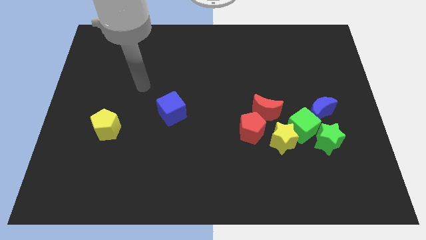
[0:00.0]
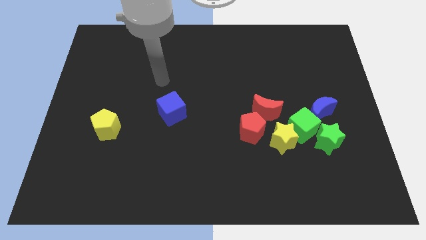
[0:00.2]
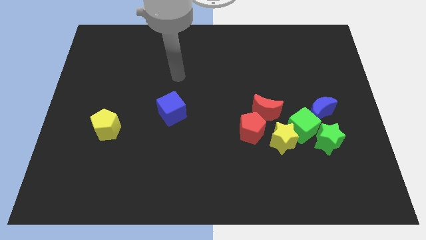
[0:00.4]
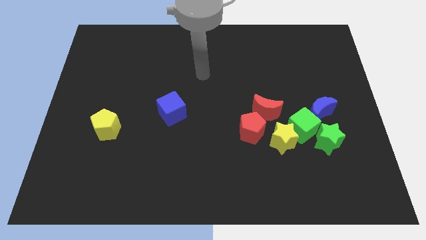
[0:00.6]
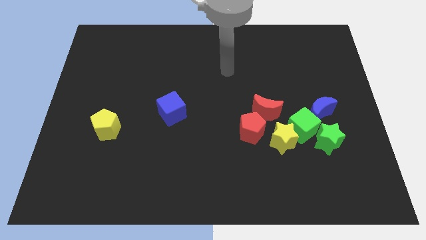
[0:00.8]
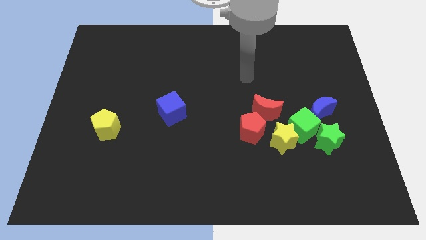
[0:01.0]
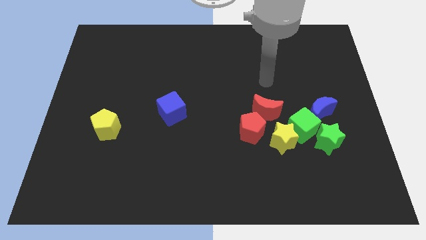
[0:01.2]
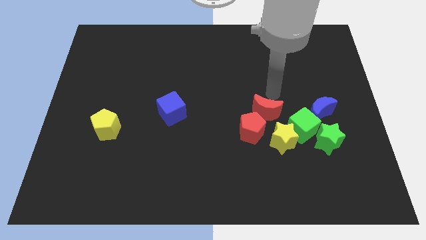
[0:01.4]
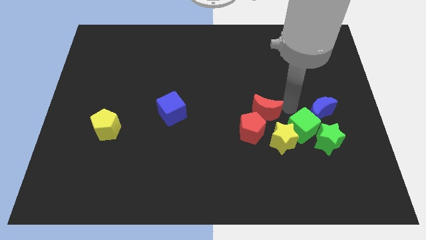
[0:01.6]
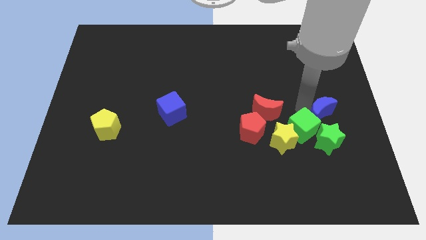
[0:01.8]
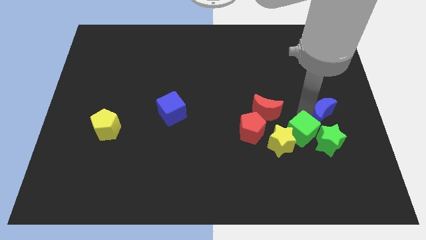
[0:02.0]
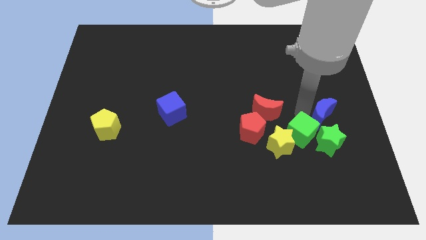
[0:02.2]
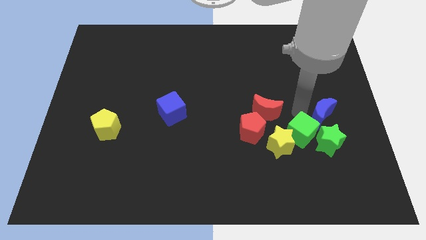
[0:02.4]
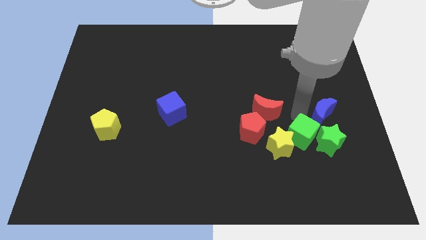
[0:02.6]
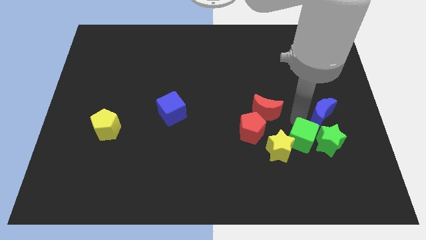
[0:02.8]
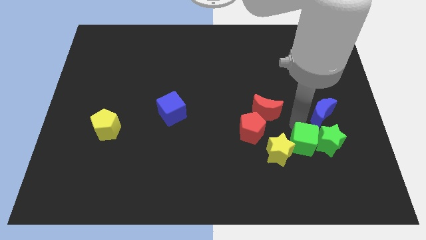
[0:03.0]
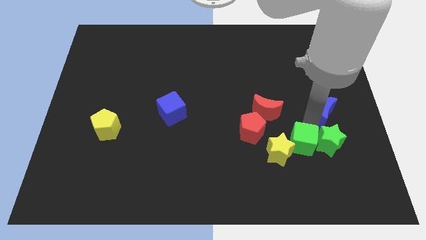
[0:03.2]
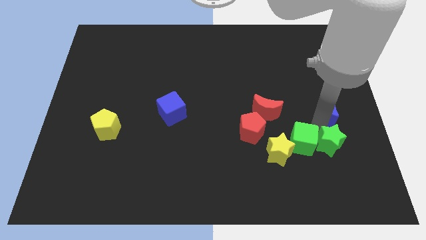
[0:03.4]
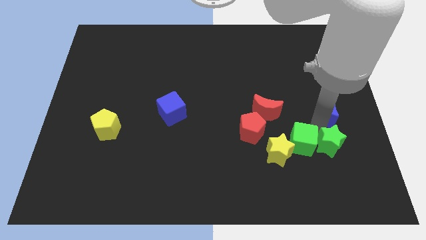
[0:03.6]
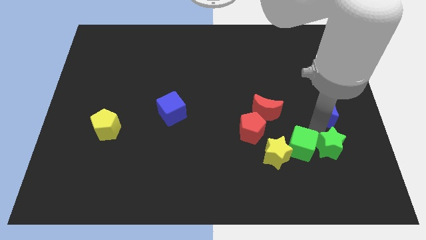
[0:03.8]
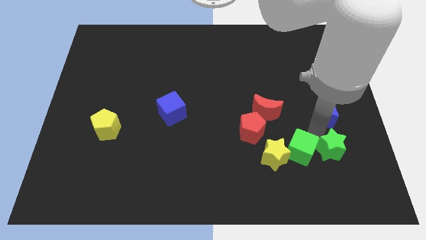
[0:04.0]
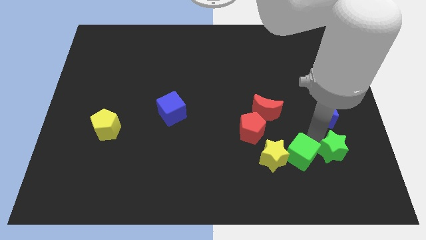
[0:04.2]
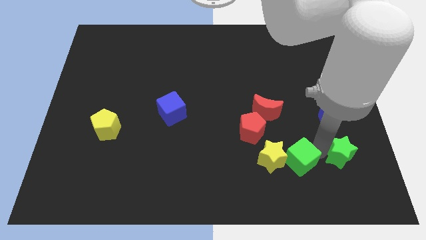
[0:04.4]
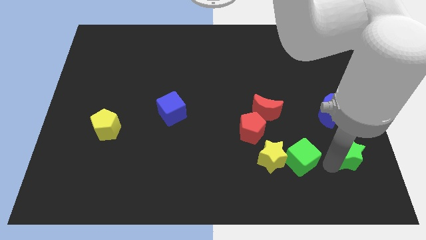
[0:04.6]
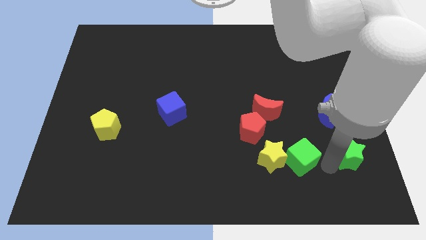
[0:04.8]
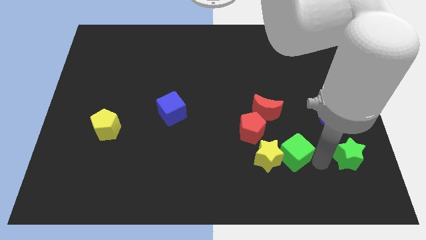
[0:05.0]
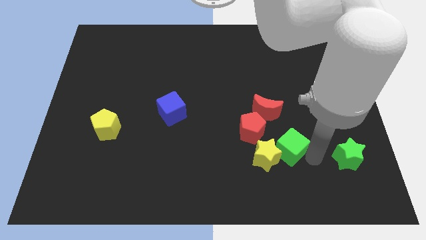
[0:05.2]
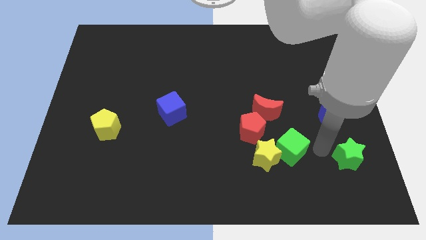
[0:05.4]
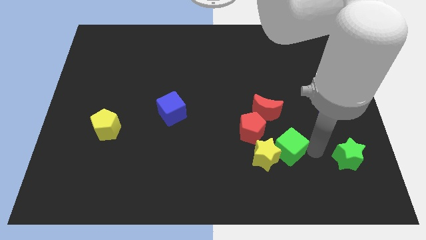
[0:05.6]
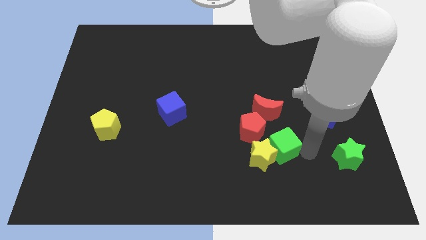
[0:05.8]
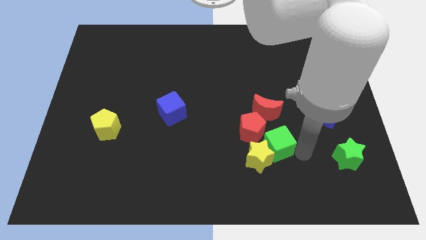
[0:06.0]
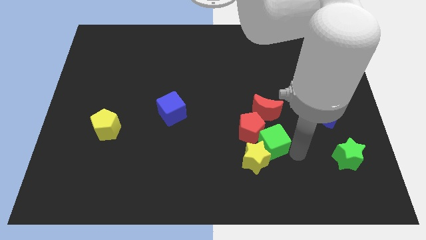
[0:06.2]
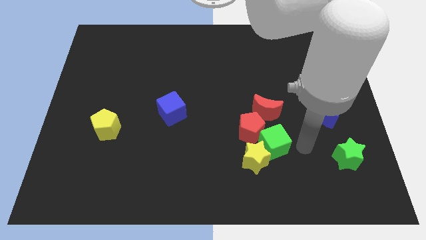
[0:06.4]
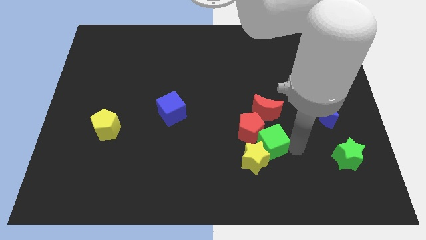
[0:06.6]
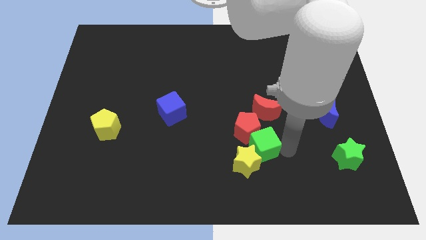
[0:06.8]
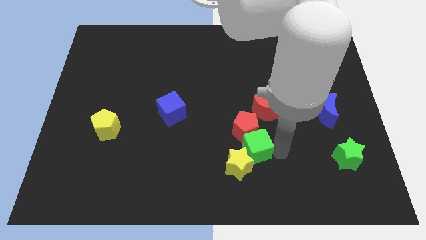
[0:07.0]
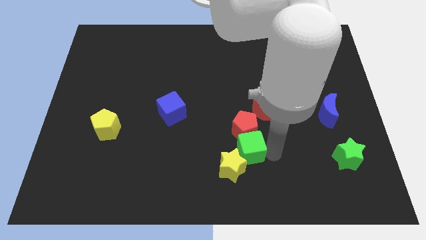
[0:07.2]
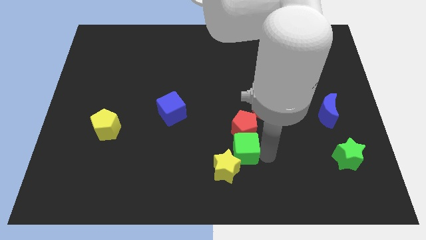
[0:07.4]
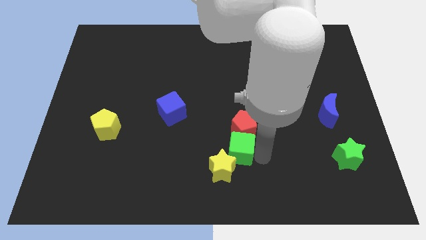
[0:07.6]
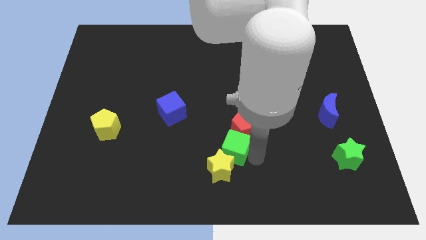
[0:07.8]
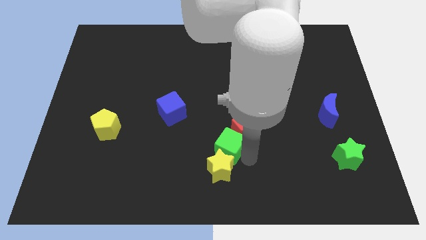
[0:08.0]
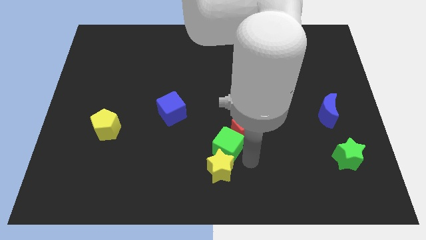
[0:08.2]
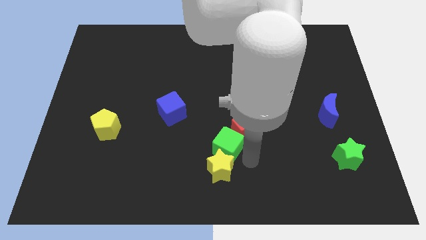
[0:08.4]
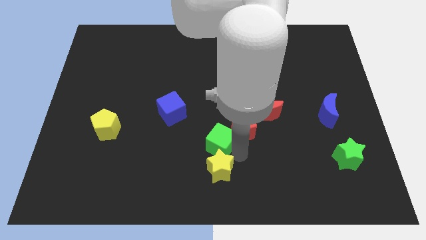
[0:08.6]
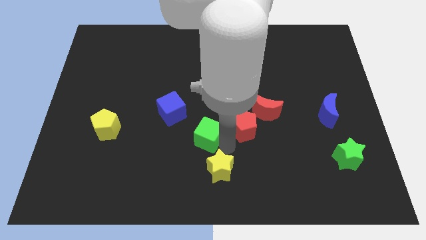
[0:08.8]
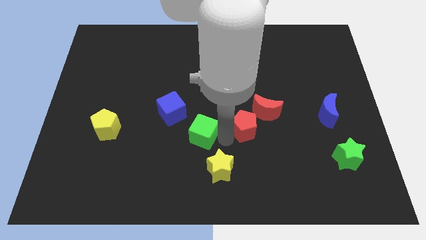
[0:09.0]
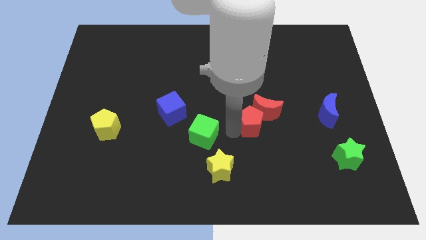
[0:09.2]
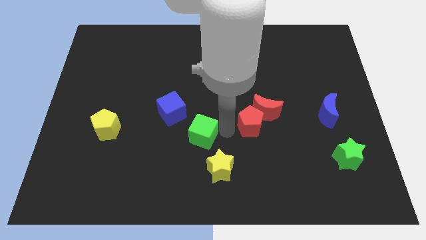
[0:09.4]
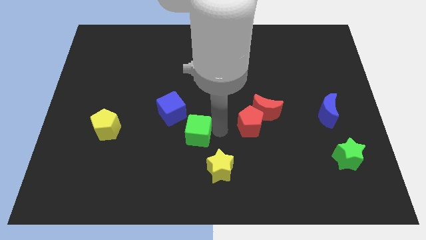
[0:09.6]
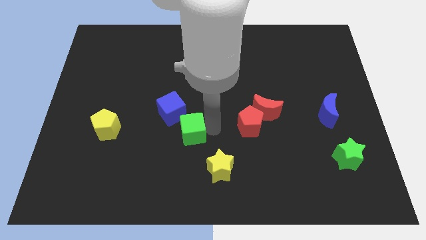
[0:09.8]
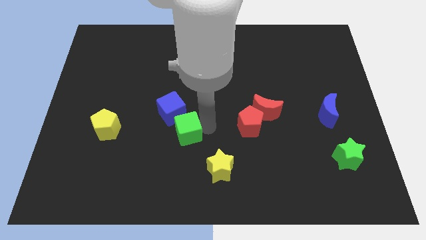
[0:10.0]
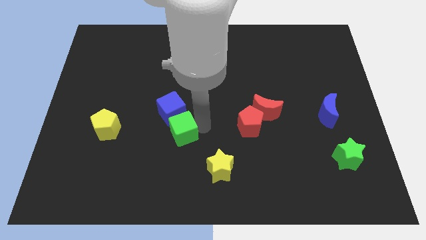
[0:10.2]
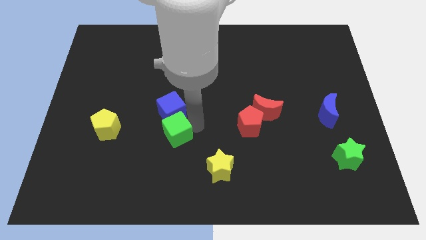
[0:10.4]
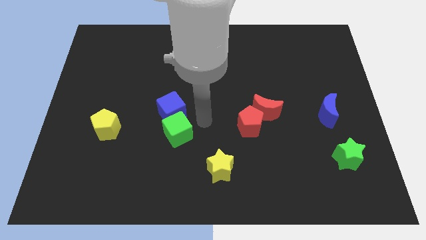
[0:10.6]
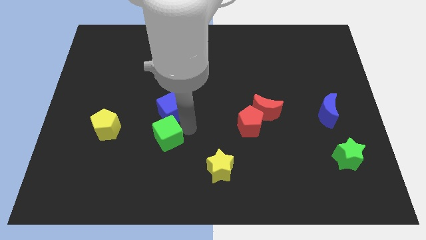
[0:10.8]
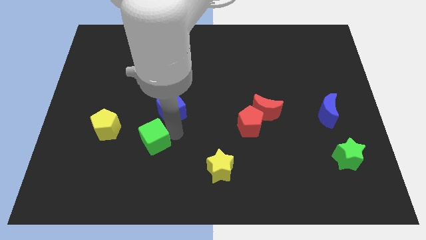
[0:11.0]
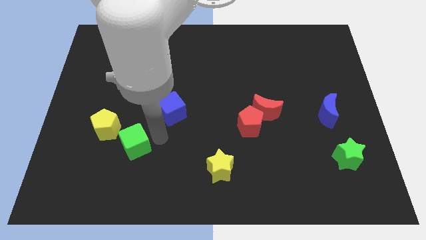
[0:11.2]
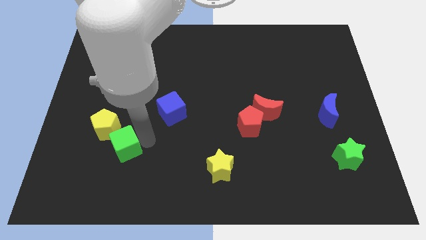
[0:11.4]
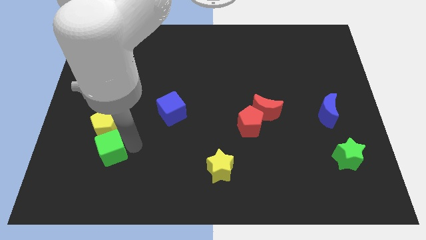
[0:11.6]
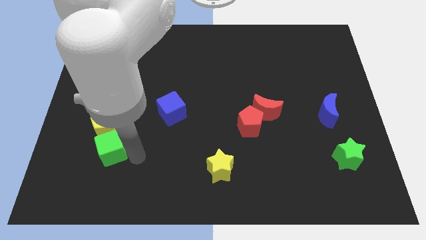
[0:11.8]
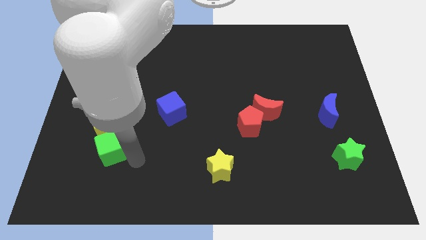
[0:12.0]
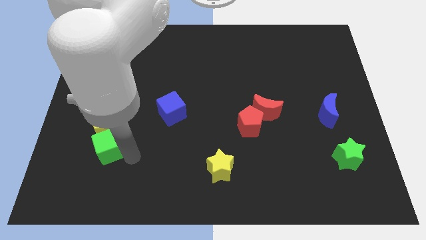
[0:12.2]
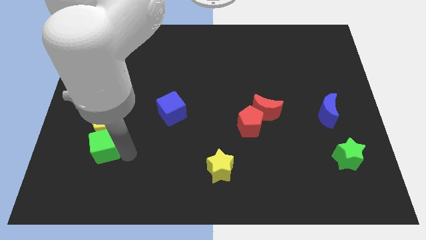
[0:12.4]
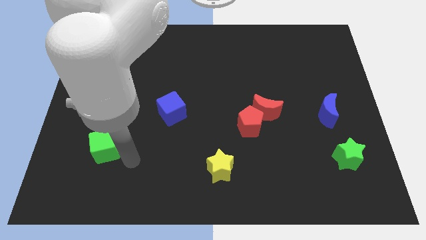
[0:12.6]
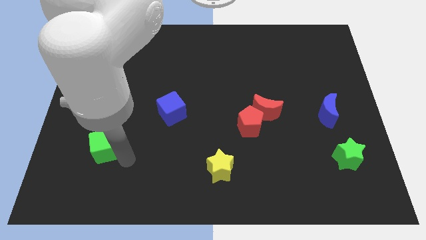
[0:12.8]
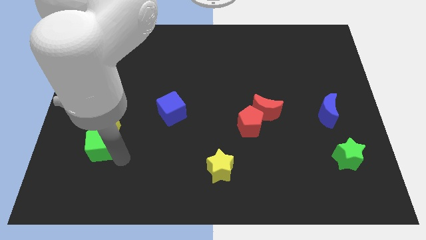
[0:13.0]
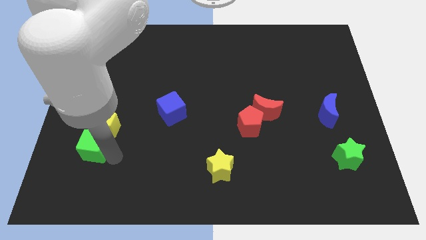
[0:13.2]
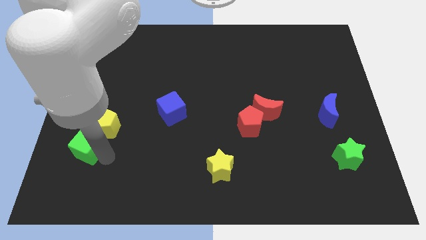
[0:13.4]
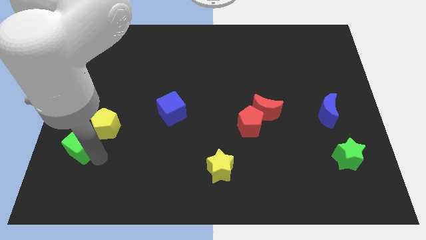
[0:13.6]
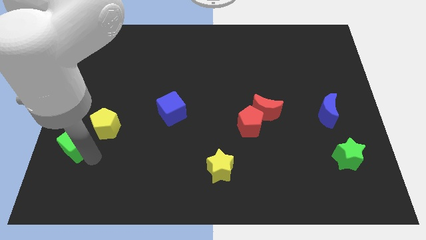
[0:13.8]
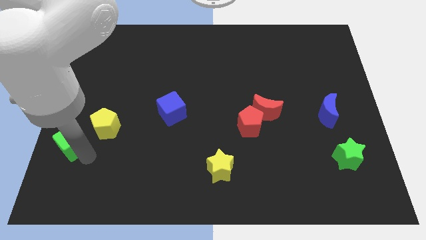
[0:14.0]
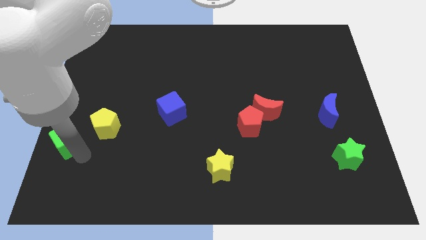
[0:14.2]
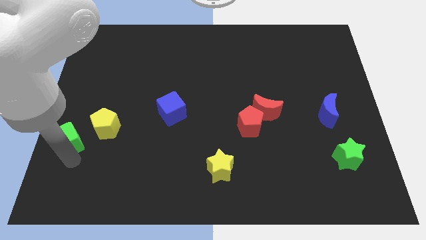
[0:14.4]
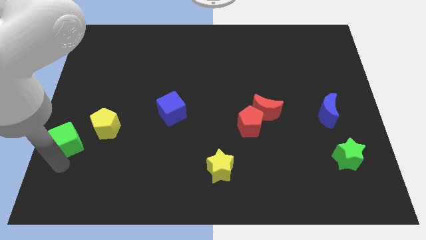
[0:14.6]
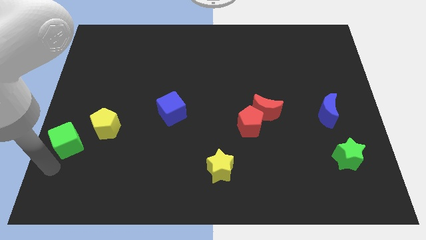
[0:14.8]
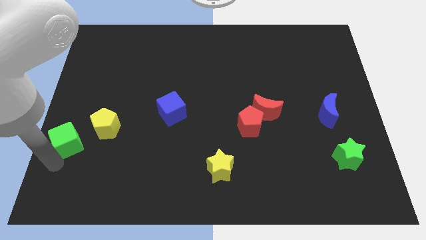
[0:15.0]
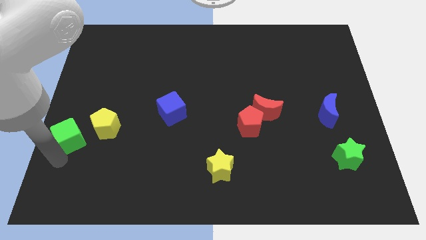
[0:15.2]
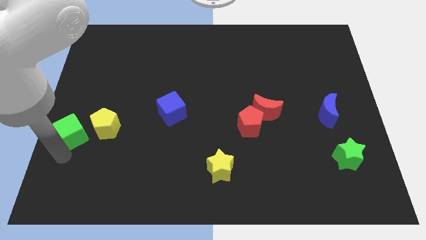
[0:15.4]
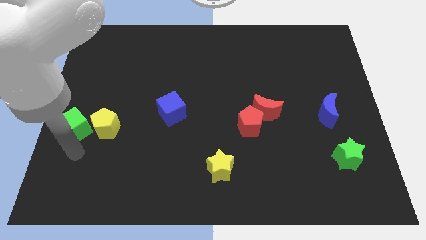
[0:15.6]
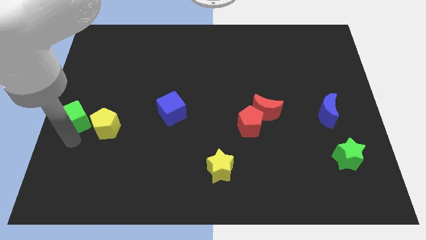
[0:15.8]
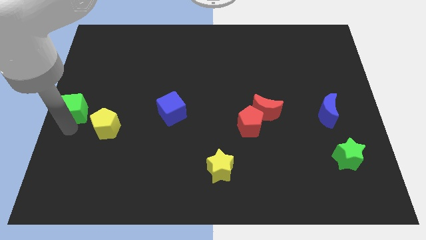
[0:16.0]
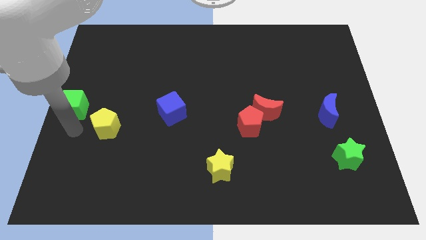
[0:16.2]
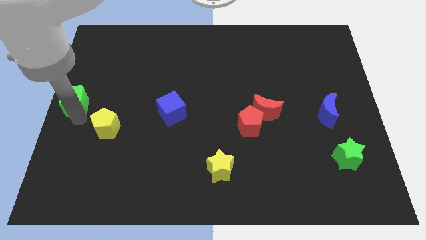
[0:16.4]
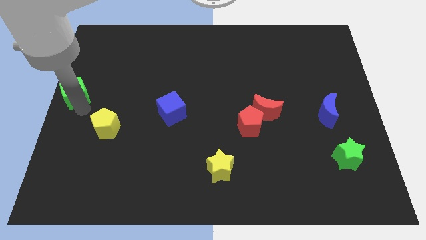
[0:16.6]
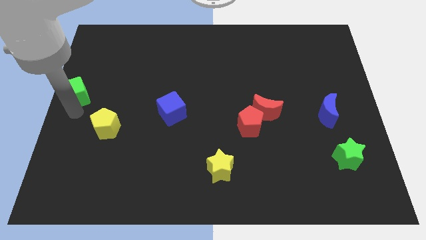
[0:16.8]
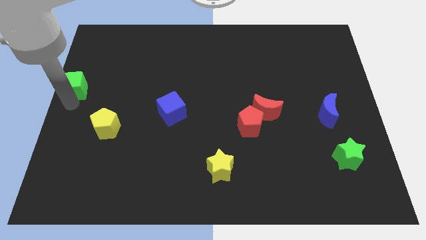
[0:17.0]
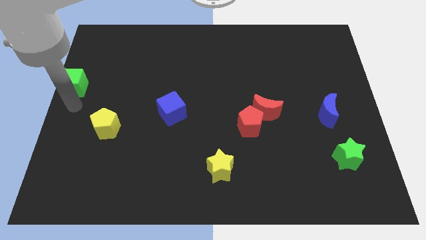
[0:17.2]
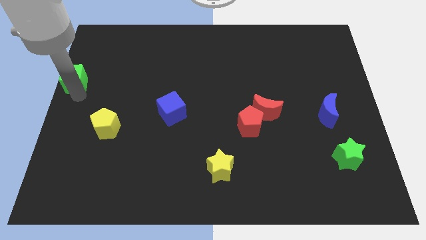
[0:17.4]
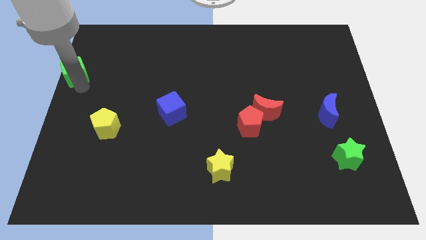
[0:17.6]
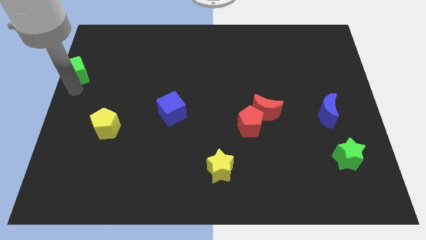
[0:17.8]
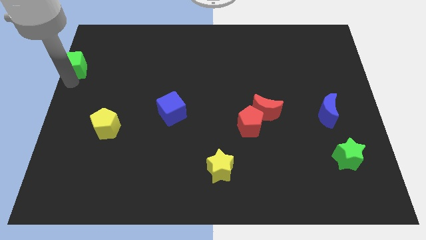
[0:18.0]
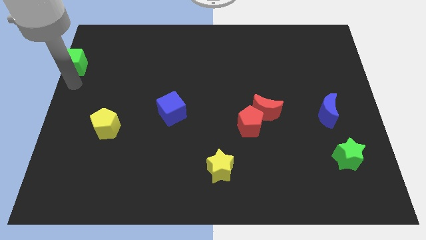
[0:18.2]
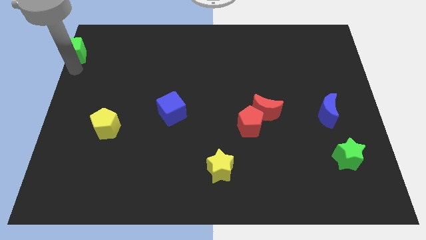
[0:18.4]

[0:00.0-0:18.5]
push the green cube to the upper left corner
